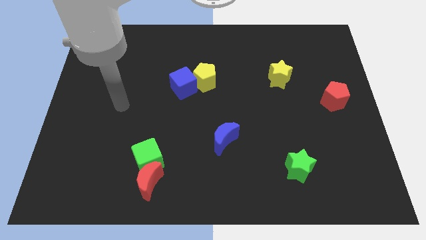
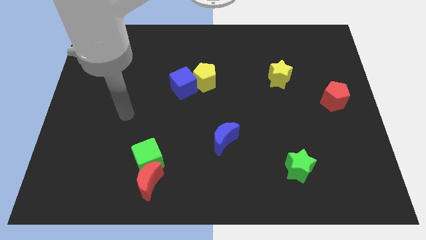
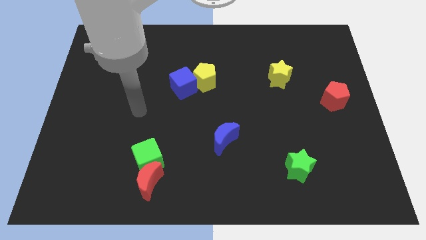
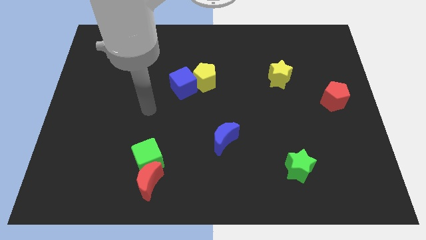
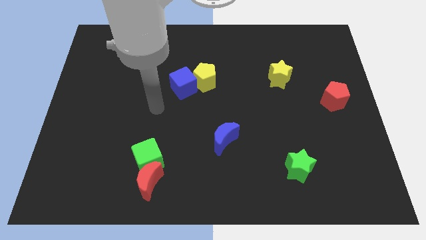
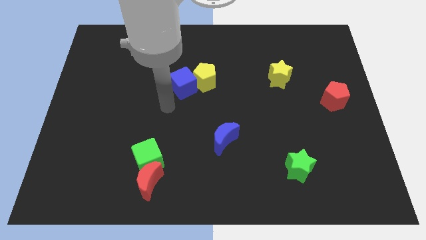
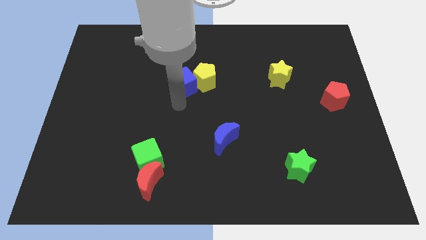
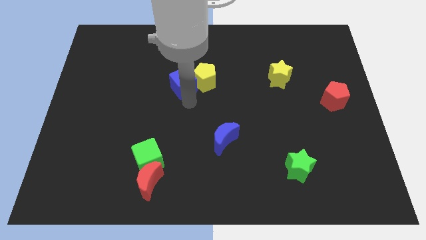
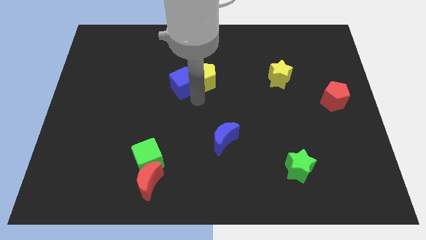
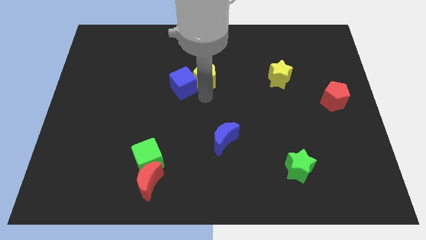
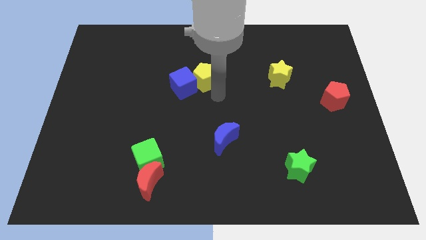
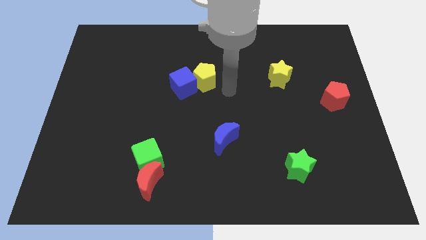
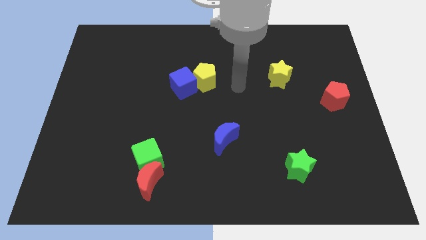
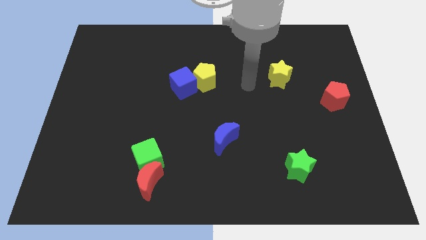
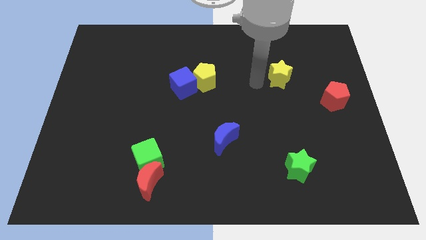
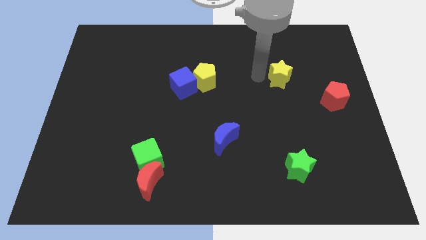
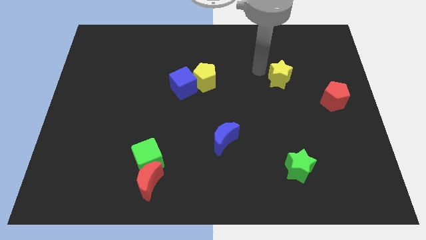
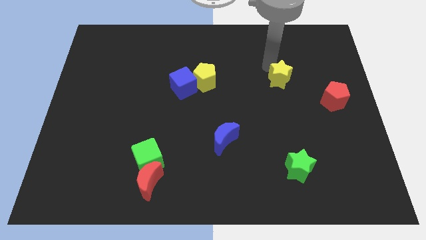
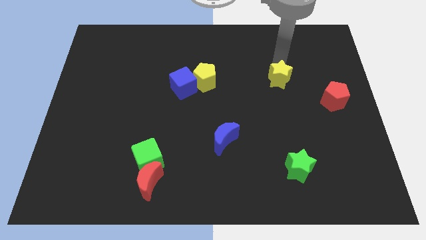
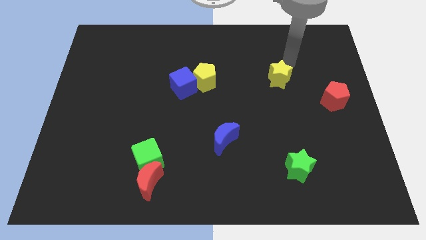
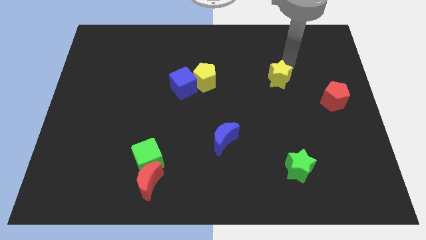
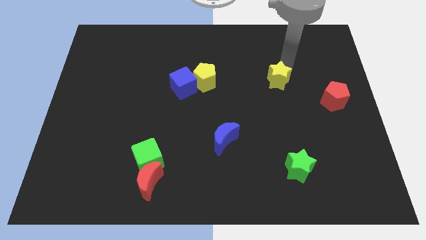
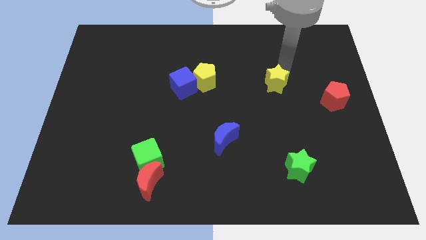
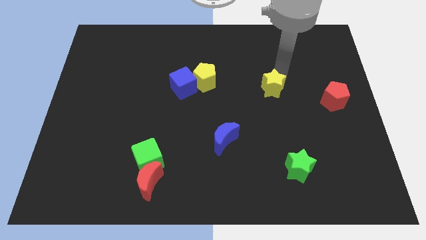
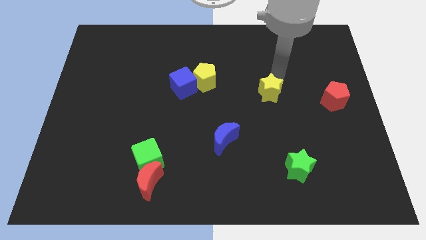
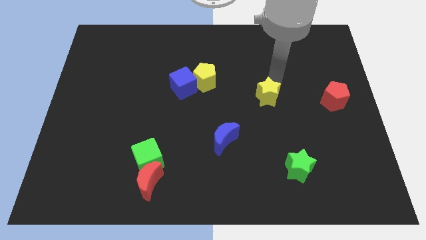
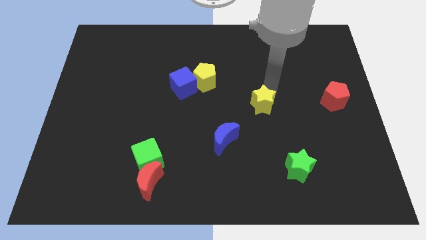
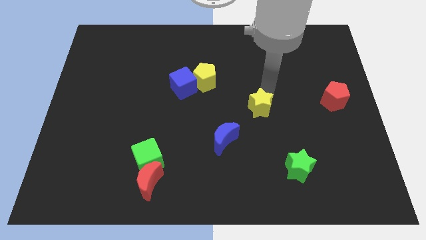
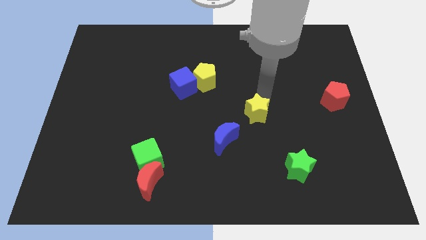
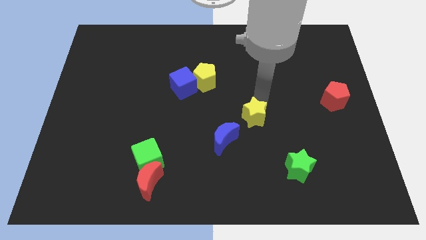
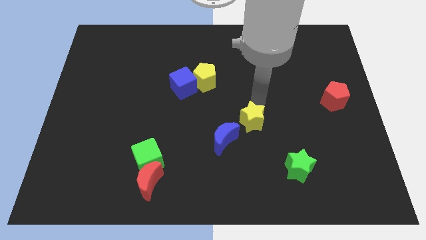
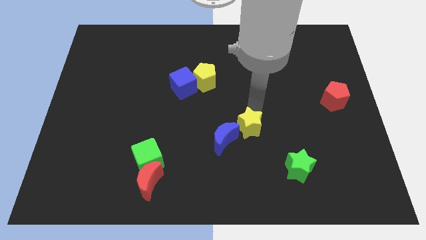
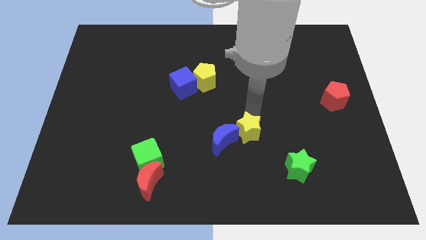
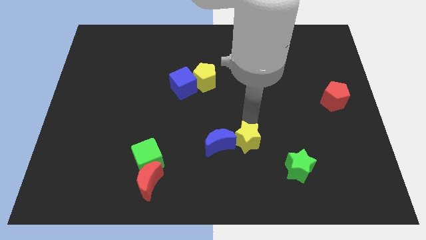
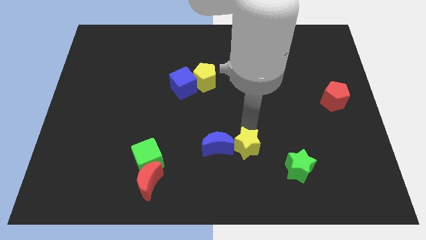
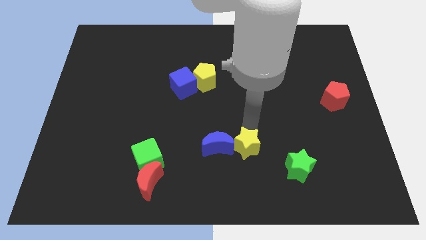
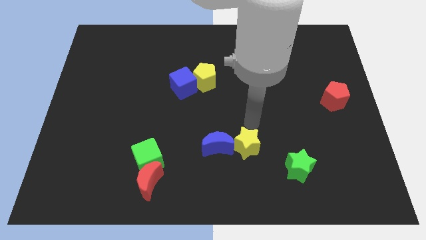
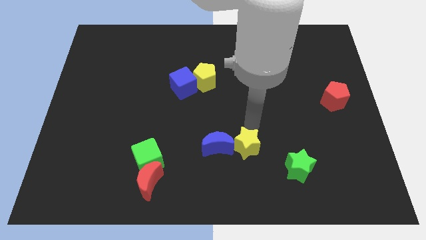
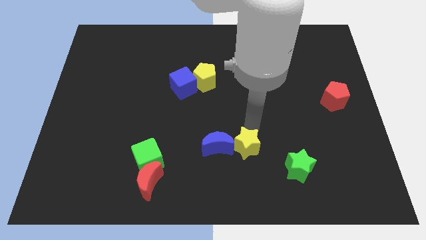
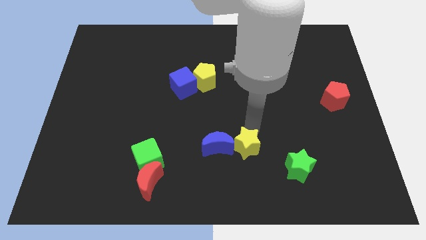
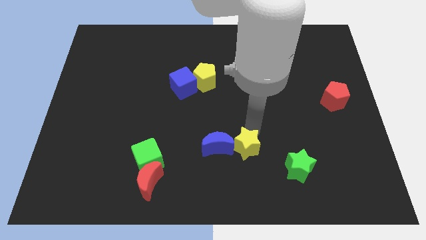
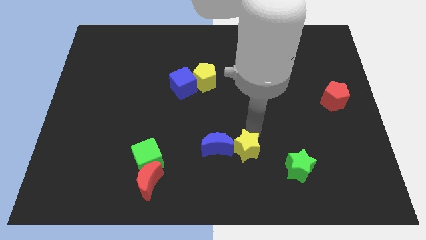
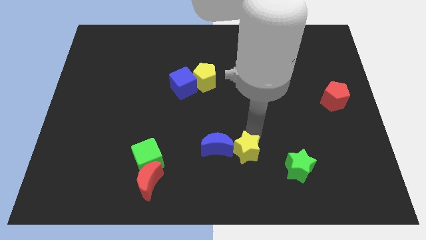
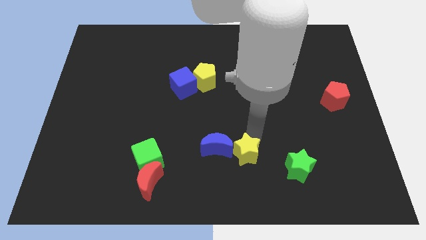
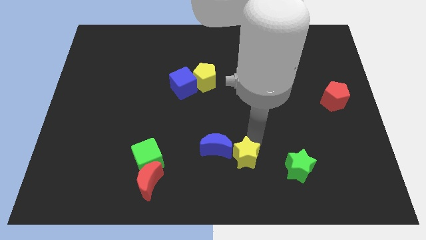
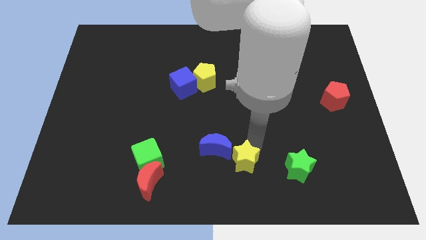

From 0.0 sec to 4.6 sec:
slide the yellow star to the bottom

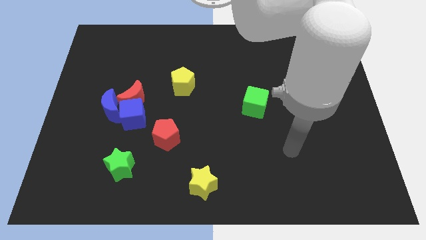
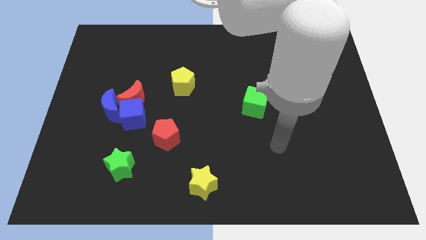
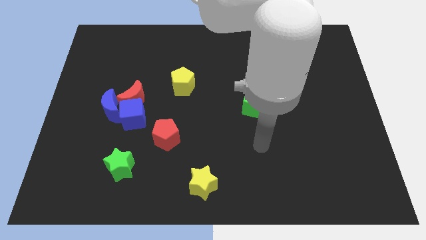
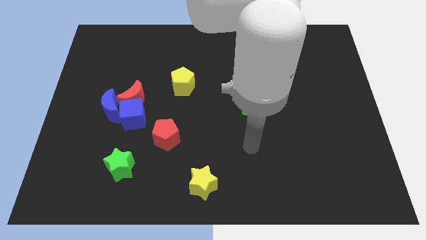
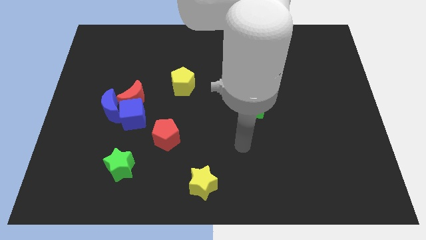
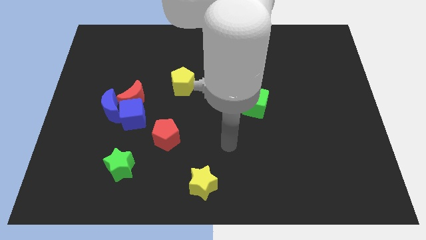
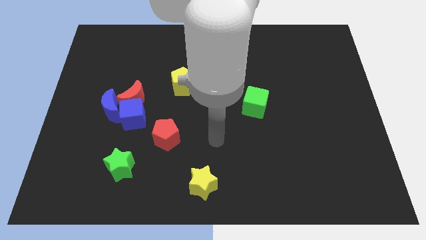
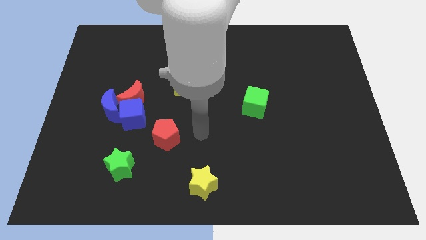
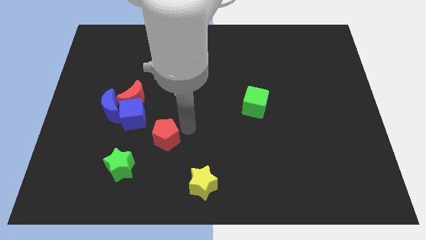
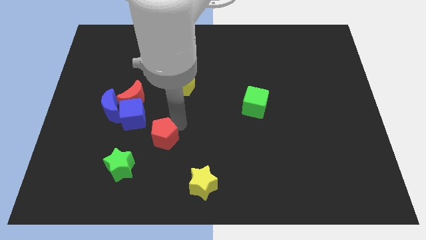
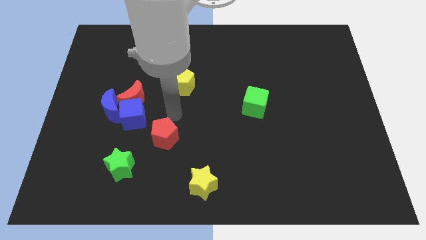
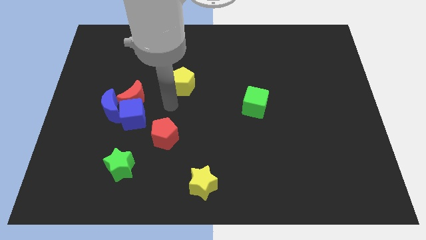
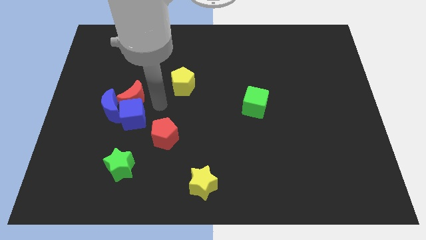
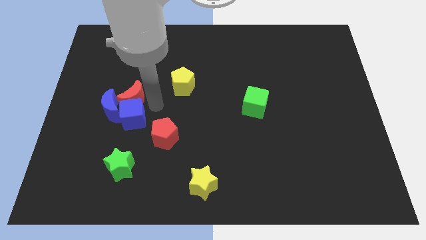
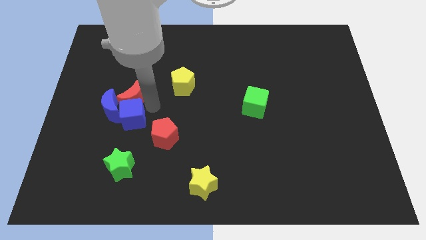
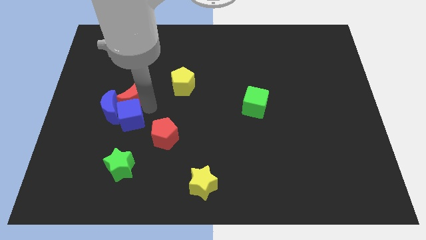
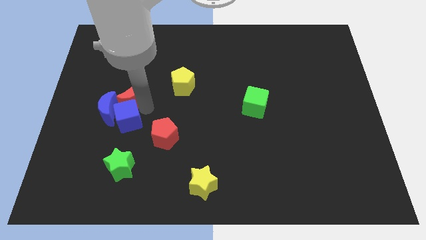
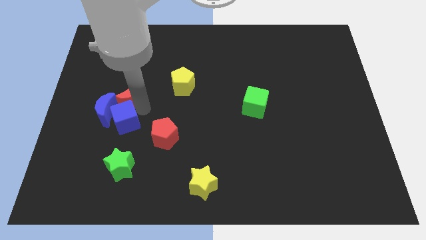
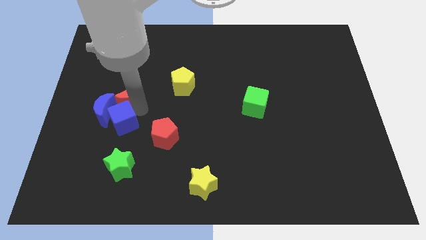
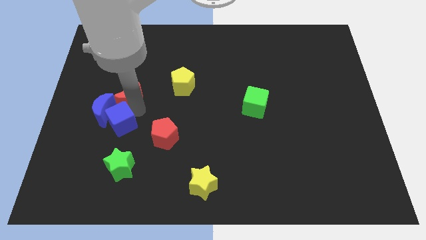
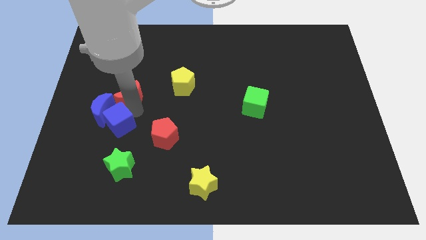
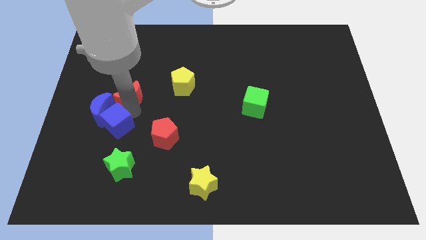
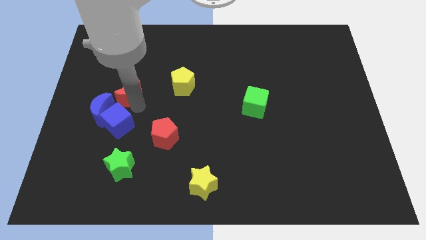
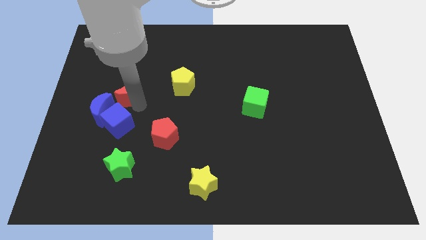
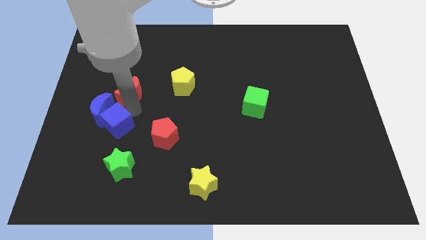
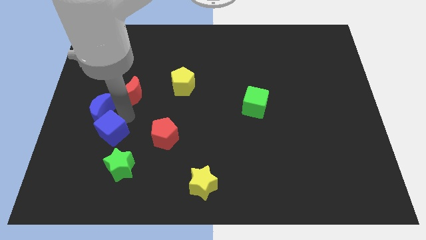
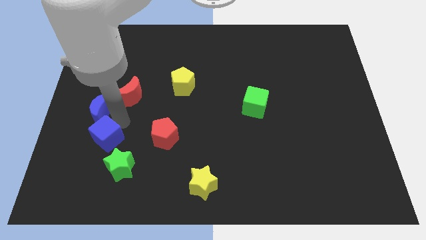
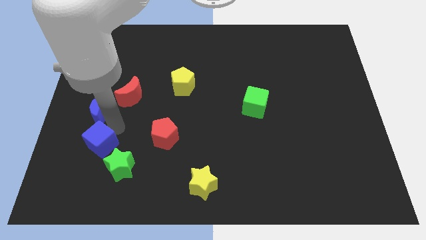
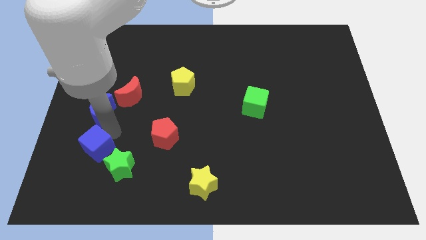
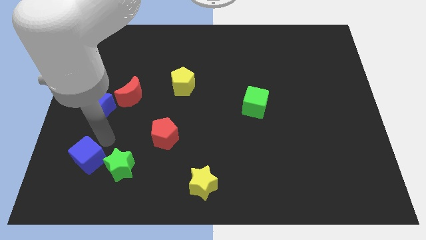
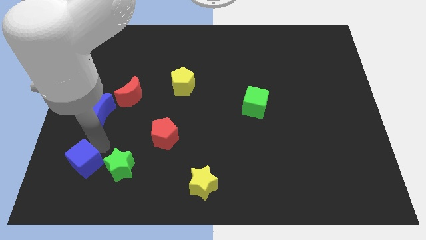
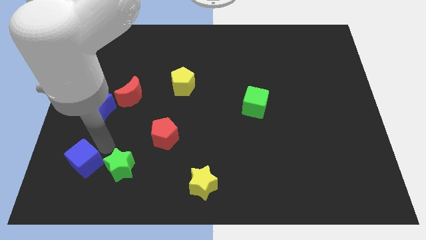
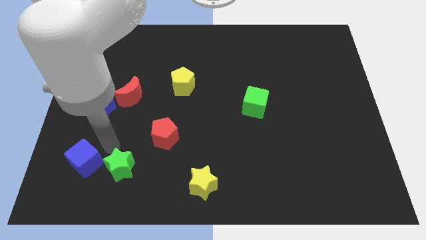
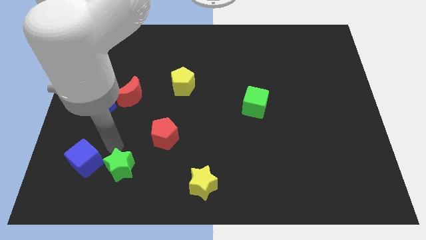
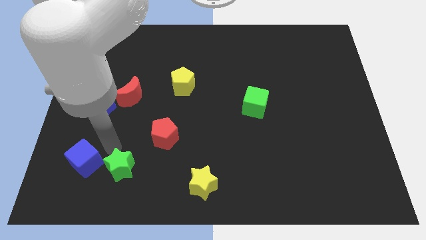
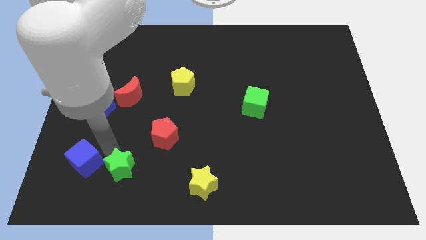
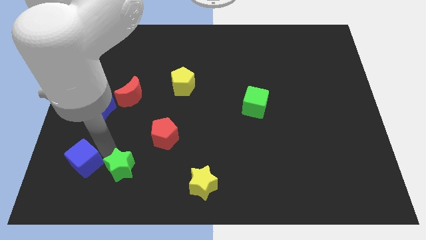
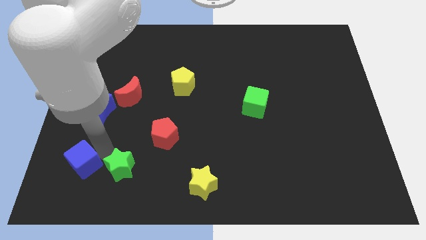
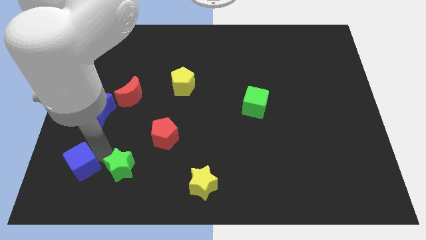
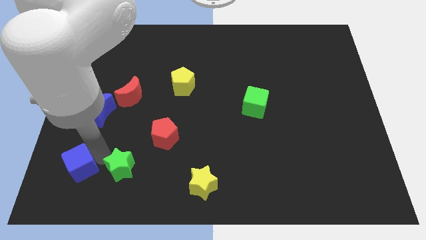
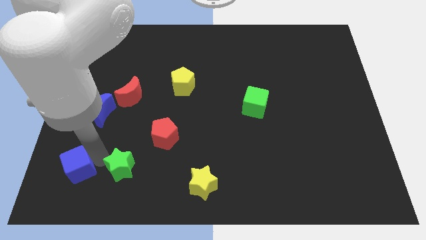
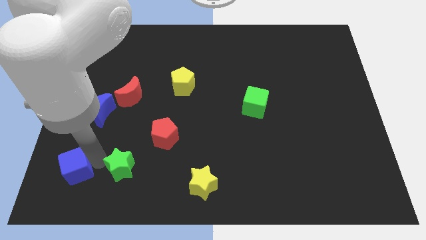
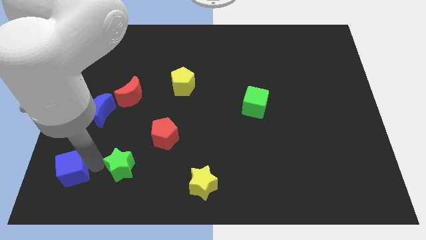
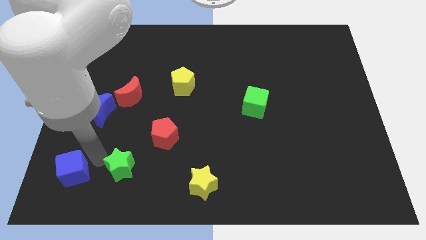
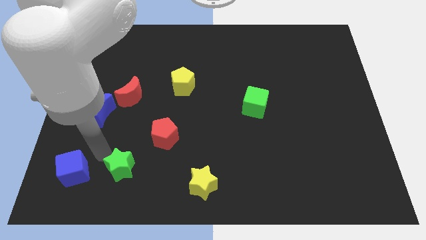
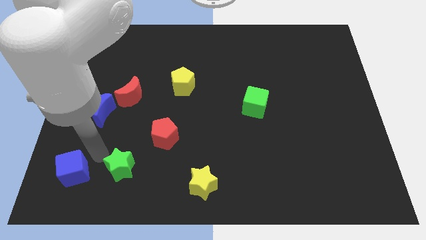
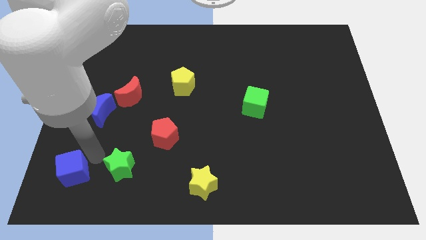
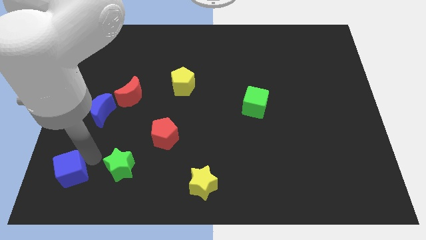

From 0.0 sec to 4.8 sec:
move the blue cube to the lower left corner
